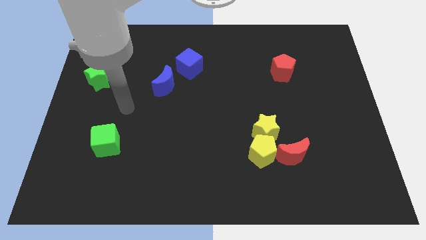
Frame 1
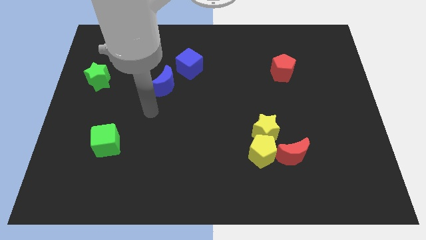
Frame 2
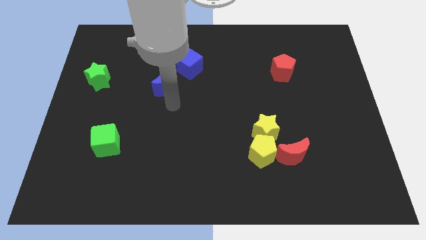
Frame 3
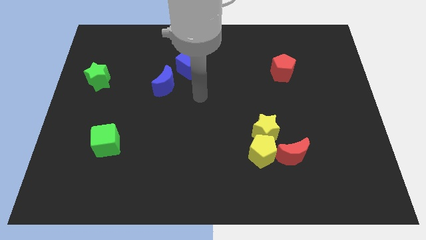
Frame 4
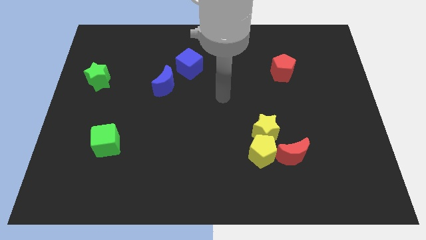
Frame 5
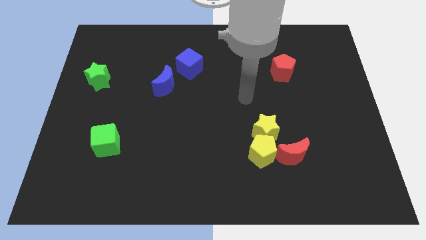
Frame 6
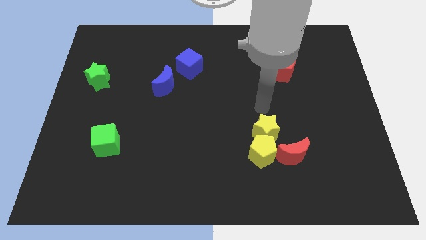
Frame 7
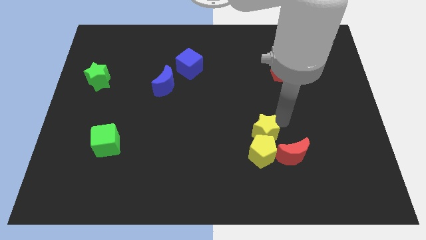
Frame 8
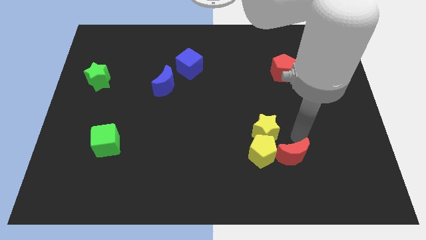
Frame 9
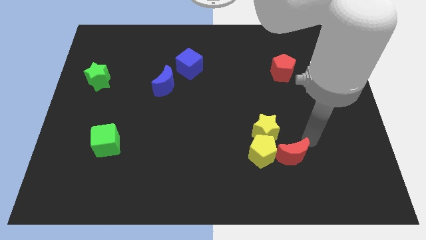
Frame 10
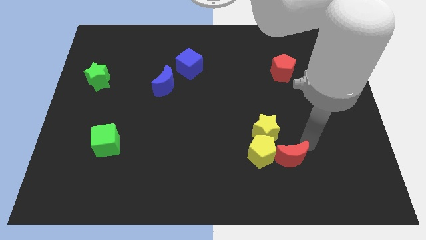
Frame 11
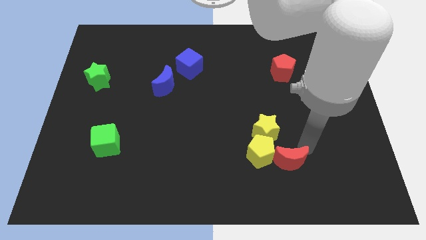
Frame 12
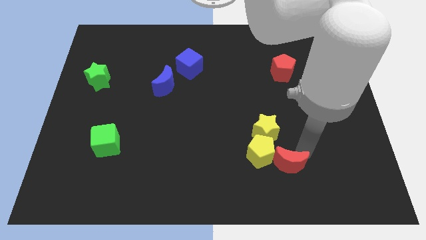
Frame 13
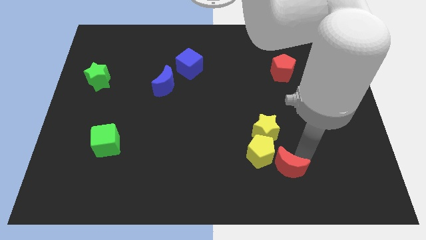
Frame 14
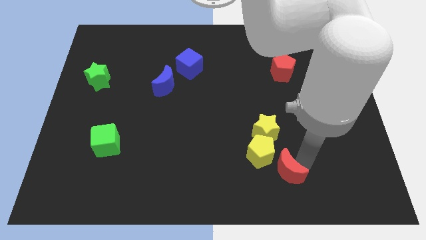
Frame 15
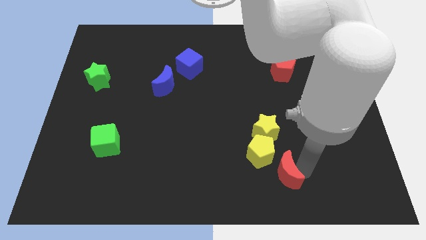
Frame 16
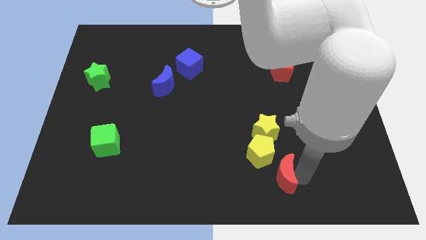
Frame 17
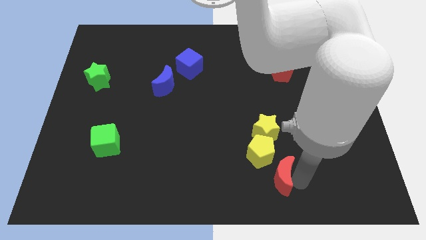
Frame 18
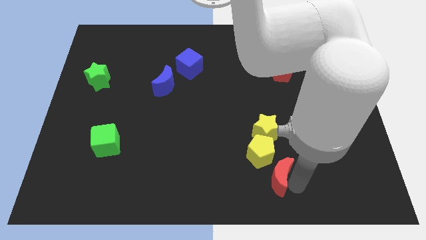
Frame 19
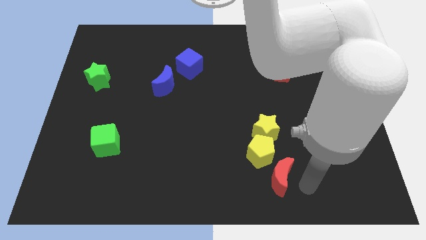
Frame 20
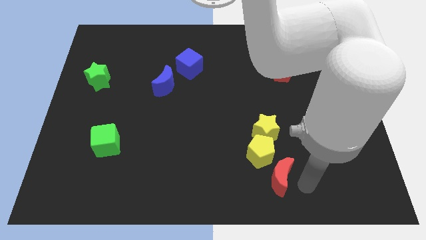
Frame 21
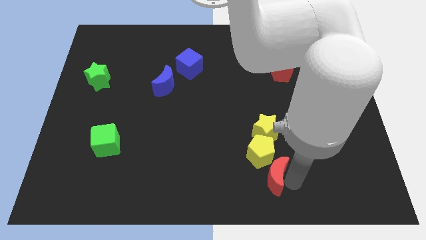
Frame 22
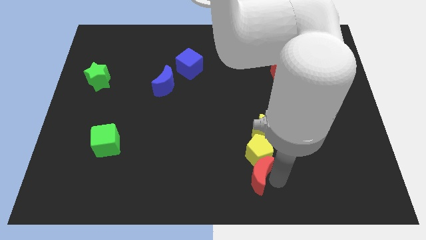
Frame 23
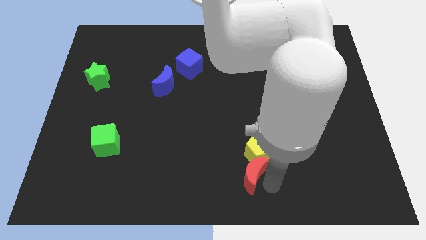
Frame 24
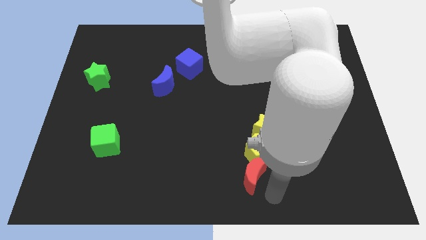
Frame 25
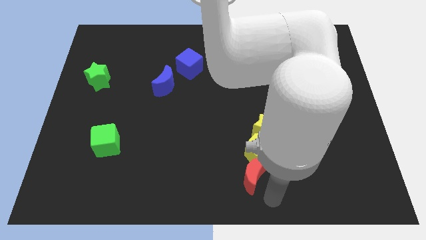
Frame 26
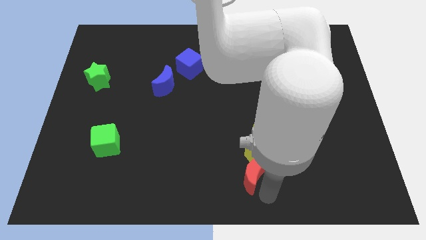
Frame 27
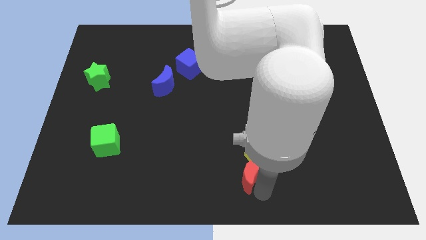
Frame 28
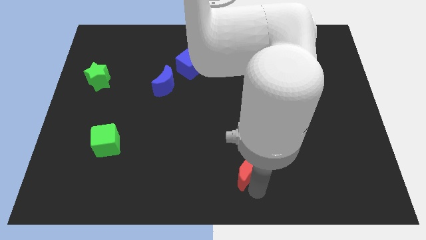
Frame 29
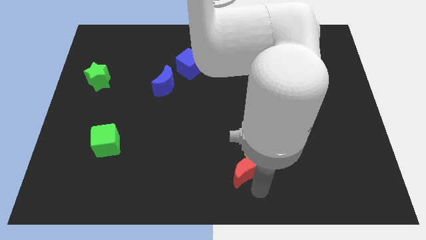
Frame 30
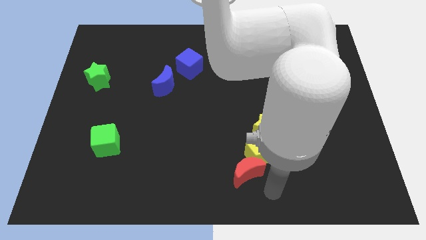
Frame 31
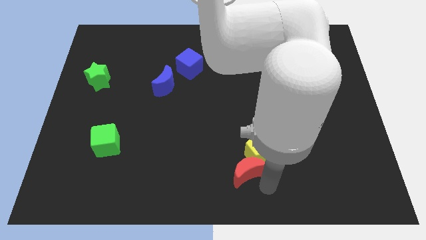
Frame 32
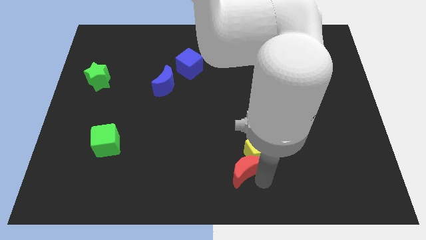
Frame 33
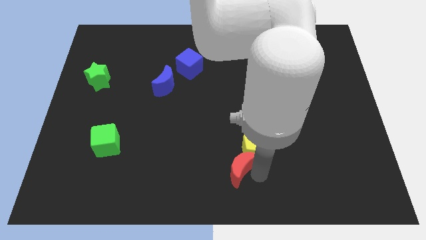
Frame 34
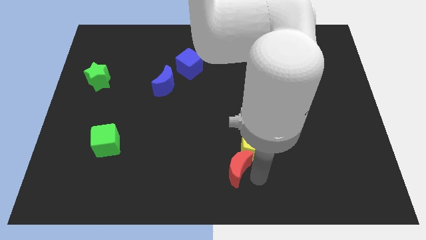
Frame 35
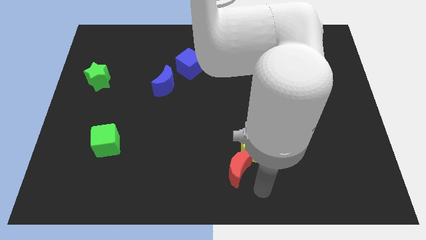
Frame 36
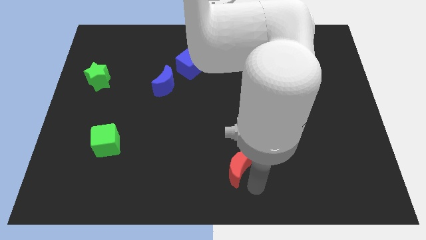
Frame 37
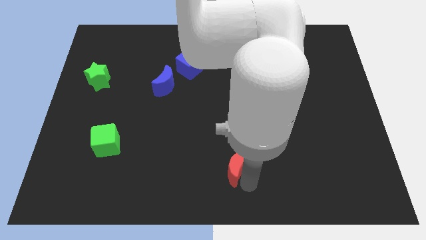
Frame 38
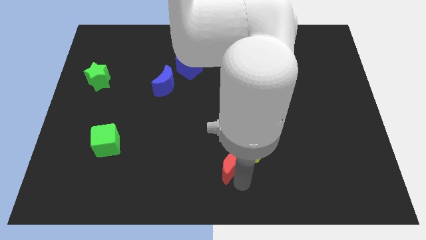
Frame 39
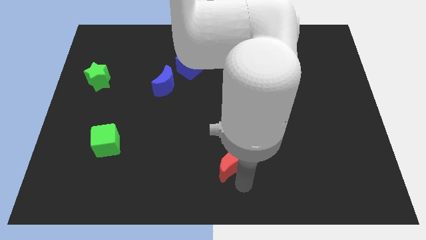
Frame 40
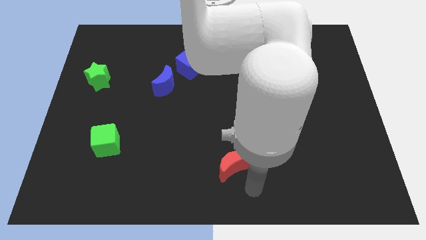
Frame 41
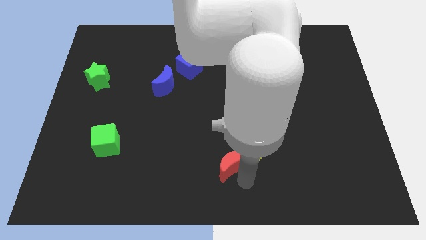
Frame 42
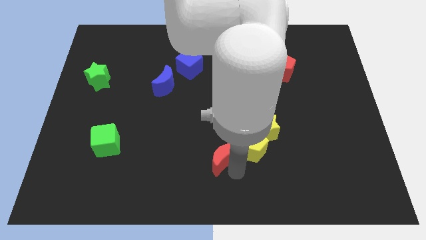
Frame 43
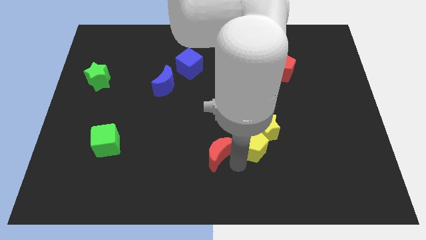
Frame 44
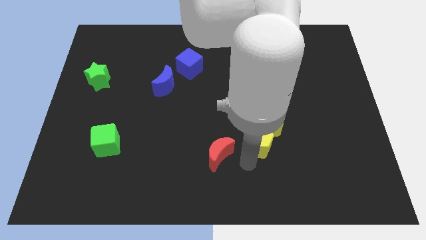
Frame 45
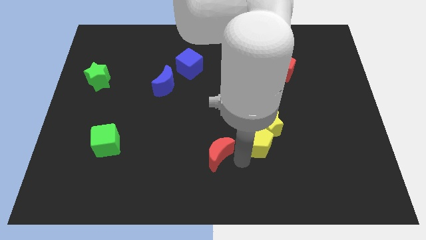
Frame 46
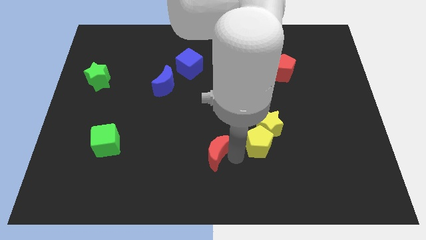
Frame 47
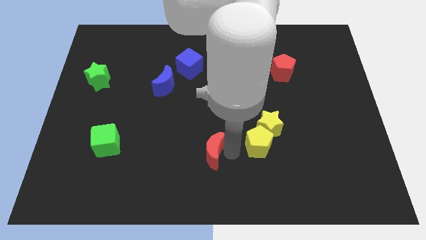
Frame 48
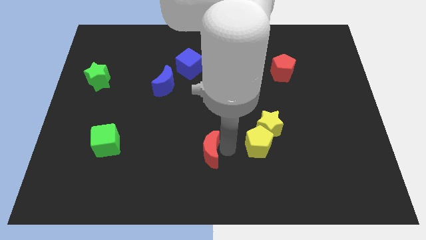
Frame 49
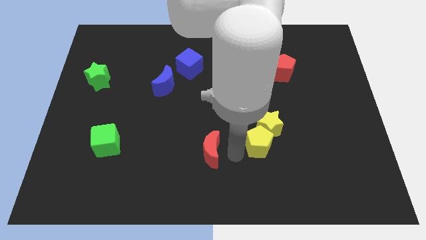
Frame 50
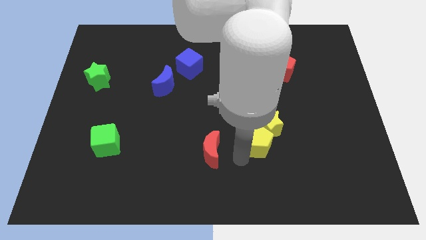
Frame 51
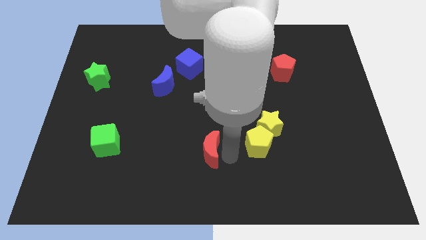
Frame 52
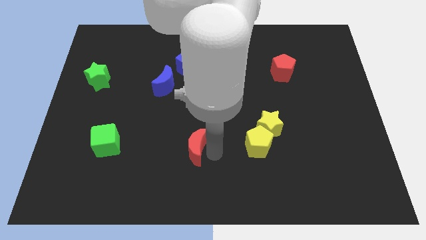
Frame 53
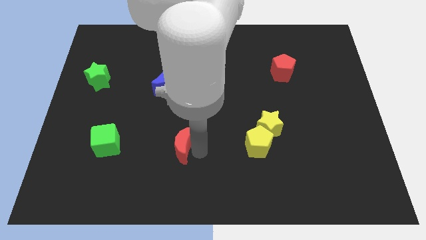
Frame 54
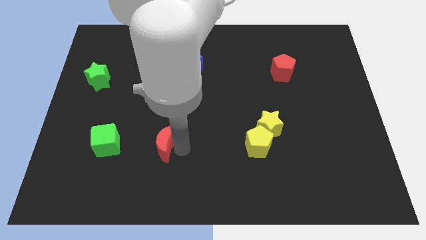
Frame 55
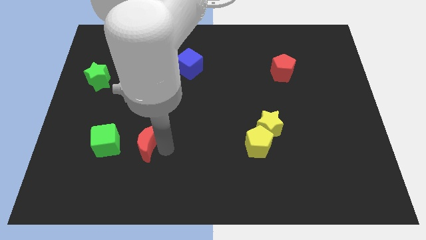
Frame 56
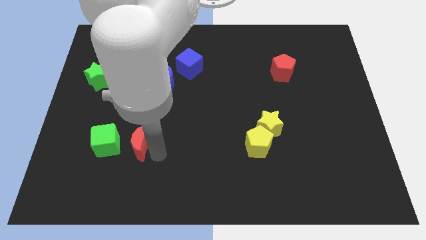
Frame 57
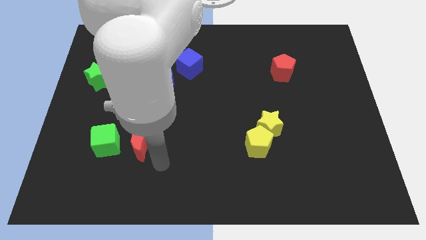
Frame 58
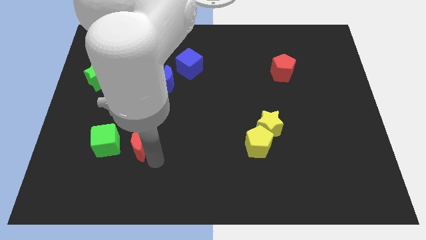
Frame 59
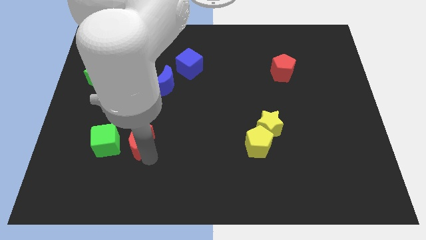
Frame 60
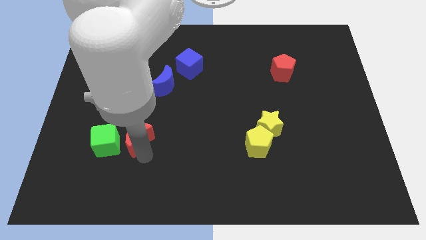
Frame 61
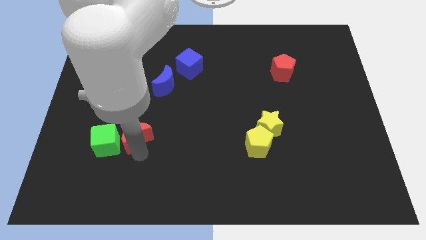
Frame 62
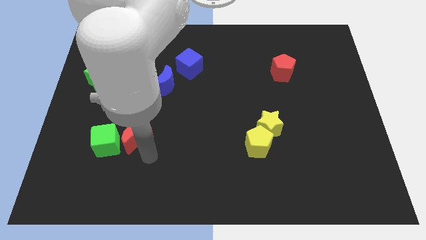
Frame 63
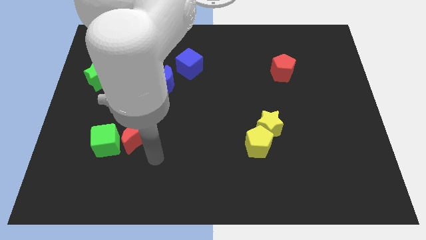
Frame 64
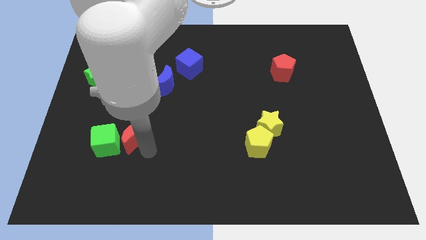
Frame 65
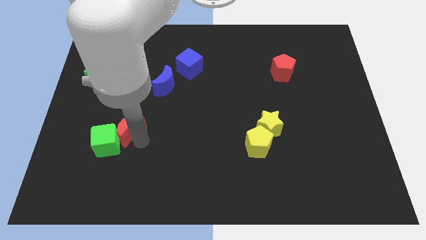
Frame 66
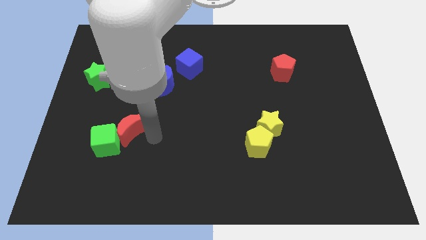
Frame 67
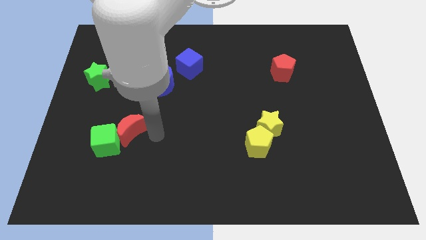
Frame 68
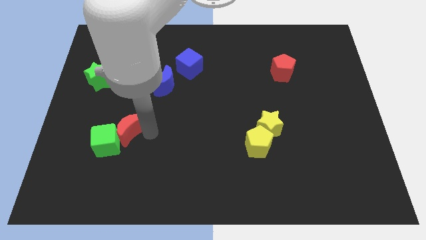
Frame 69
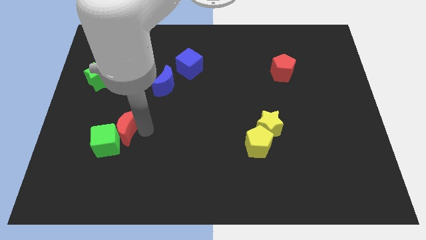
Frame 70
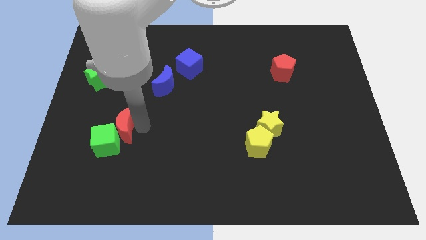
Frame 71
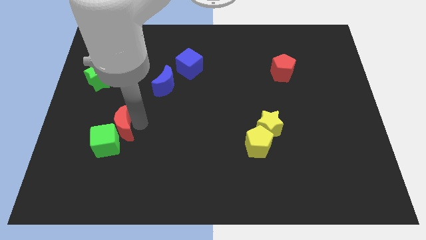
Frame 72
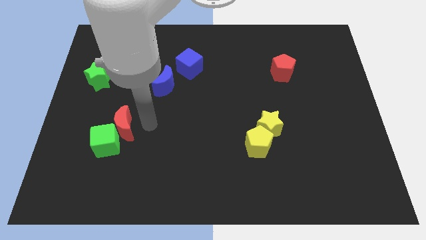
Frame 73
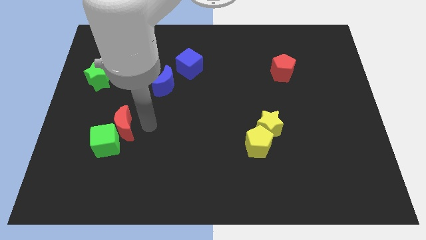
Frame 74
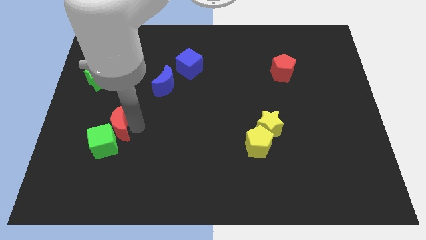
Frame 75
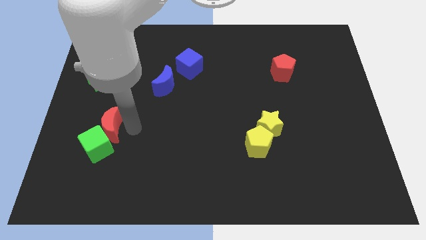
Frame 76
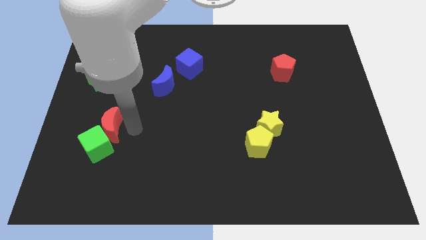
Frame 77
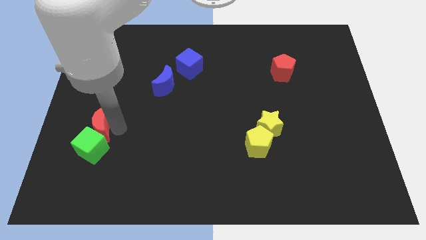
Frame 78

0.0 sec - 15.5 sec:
put the red moon to the top left of the green cube
